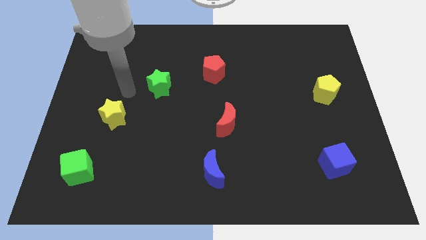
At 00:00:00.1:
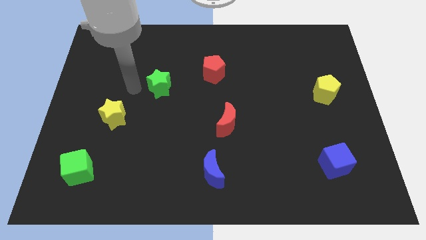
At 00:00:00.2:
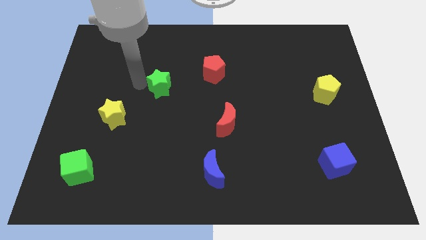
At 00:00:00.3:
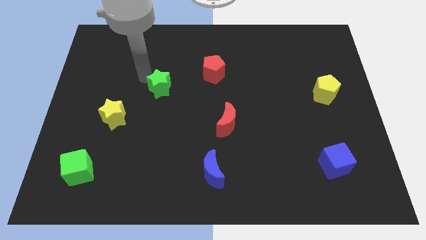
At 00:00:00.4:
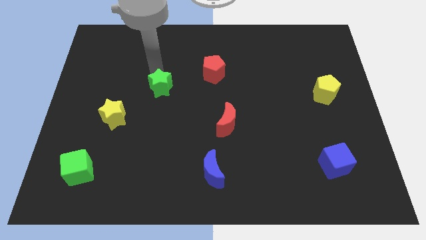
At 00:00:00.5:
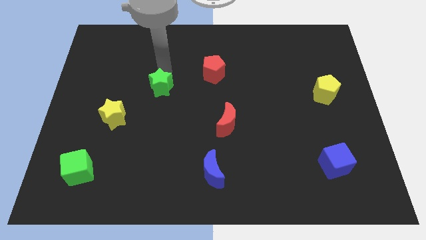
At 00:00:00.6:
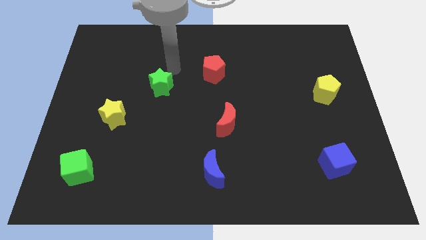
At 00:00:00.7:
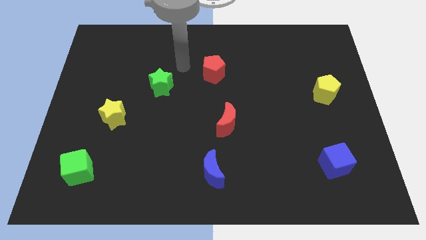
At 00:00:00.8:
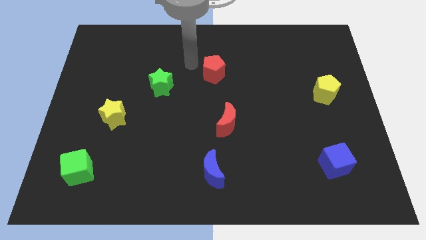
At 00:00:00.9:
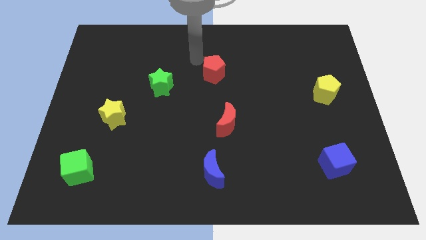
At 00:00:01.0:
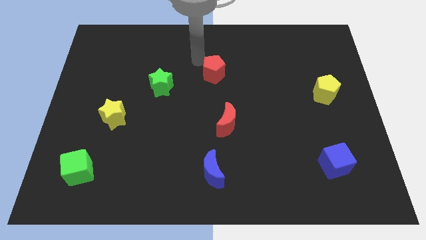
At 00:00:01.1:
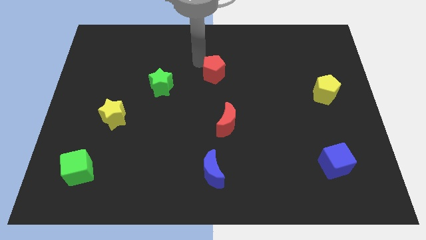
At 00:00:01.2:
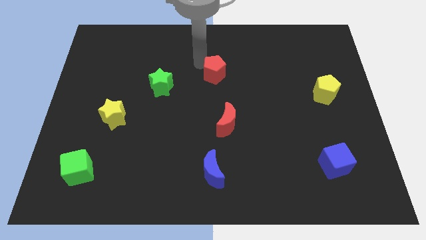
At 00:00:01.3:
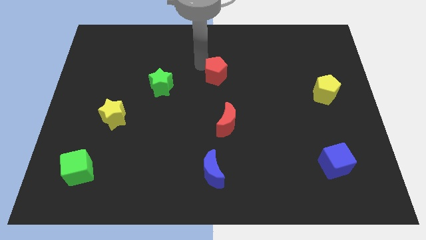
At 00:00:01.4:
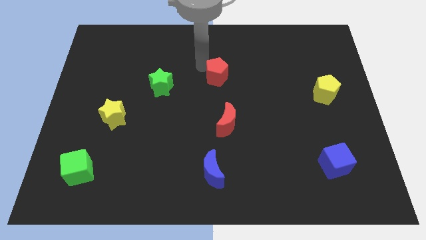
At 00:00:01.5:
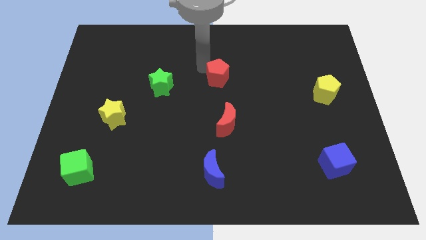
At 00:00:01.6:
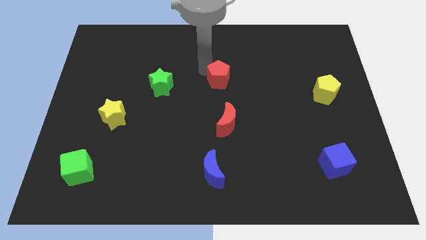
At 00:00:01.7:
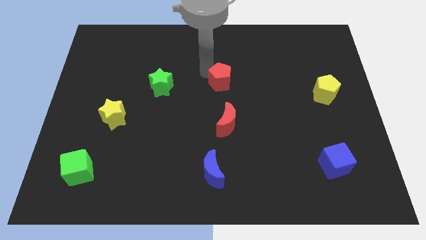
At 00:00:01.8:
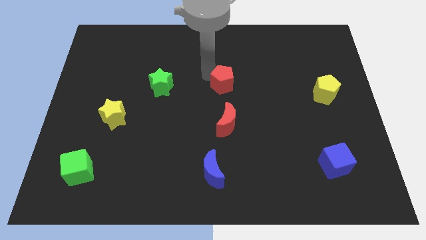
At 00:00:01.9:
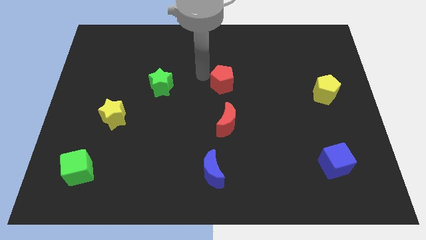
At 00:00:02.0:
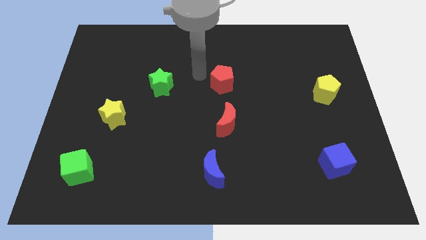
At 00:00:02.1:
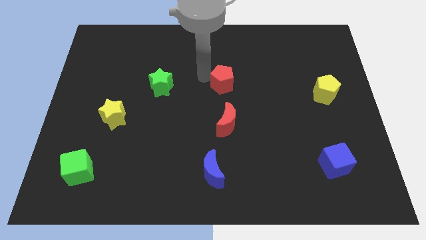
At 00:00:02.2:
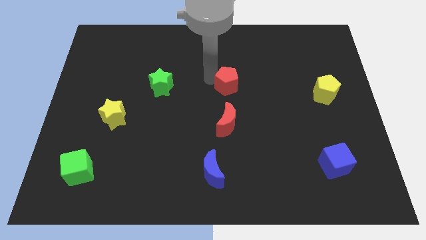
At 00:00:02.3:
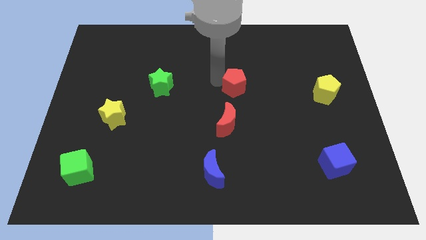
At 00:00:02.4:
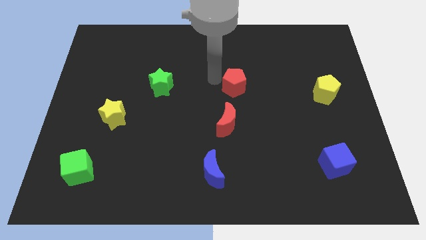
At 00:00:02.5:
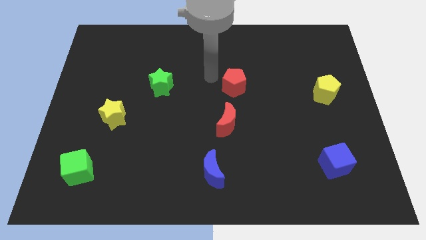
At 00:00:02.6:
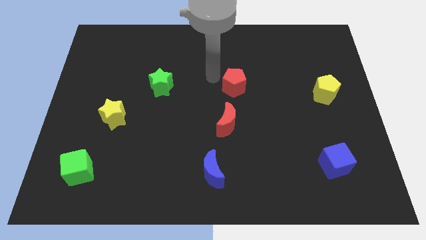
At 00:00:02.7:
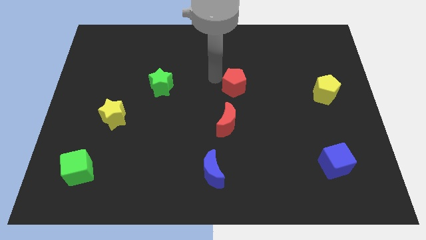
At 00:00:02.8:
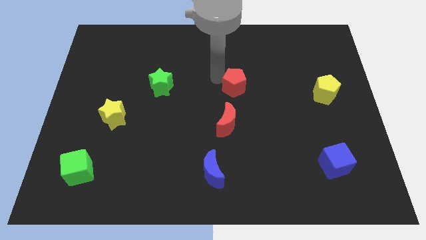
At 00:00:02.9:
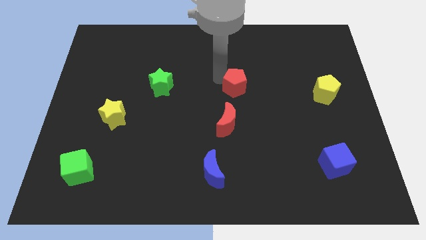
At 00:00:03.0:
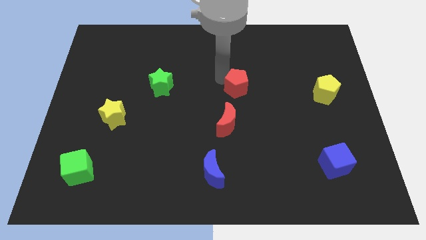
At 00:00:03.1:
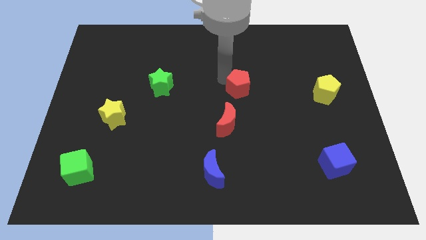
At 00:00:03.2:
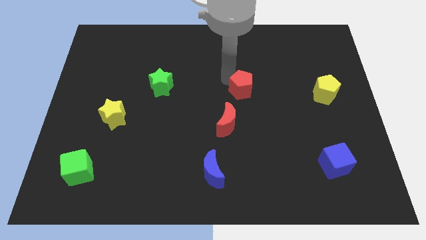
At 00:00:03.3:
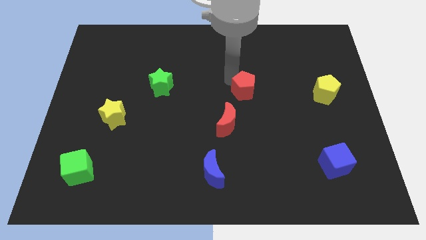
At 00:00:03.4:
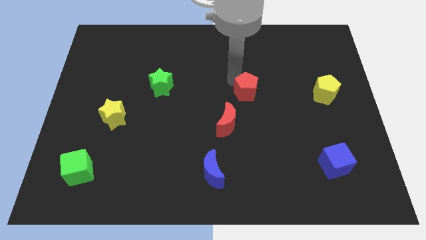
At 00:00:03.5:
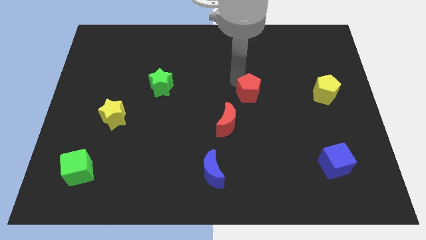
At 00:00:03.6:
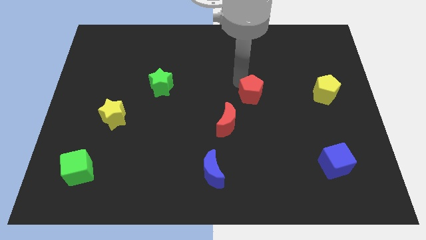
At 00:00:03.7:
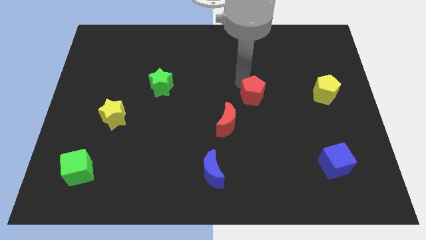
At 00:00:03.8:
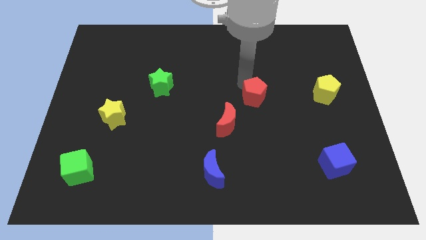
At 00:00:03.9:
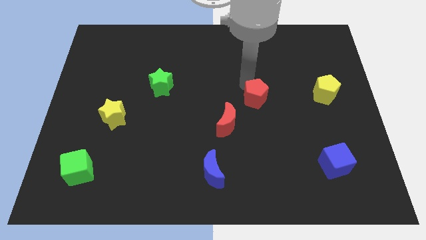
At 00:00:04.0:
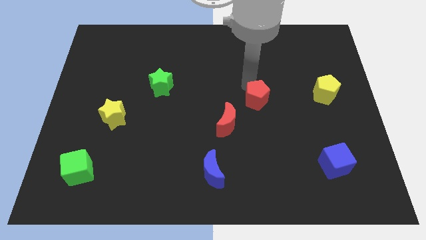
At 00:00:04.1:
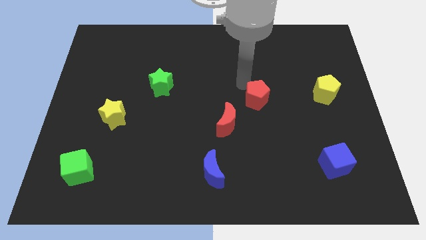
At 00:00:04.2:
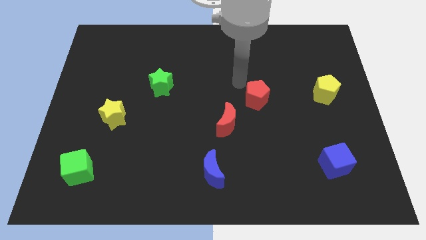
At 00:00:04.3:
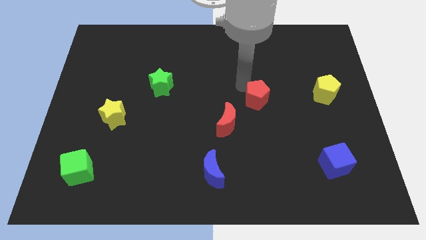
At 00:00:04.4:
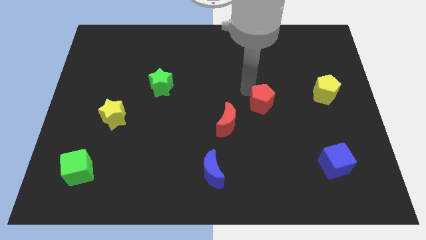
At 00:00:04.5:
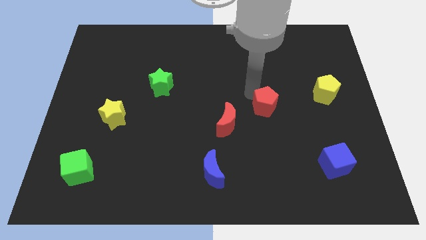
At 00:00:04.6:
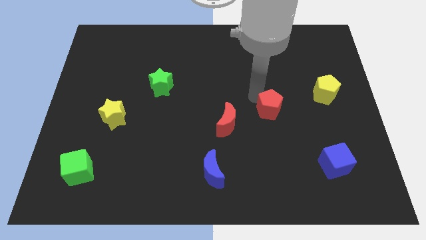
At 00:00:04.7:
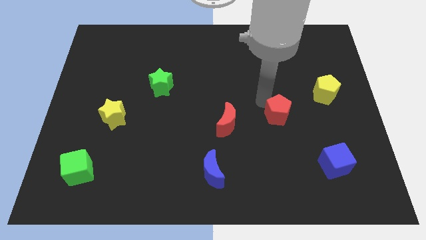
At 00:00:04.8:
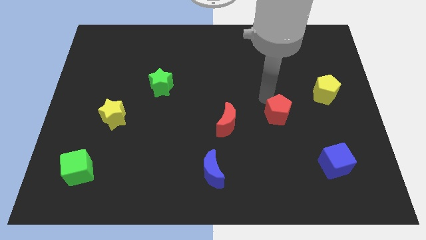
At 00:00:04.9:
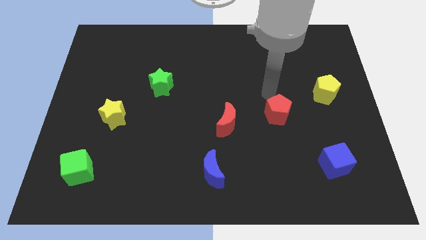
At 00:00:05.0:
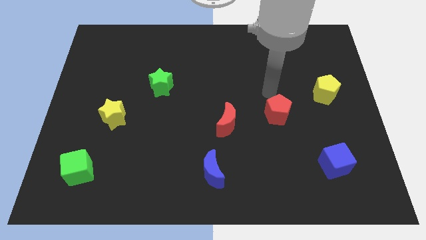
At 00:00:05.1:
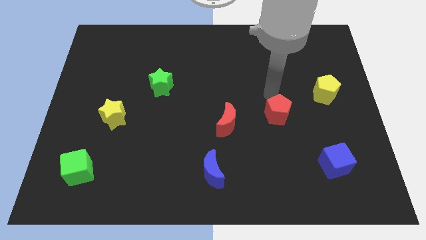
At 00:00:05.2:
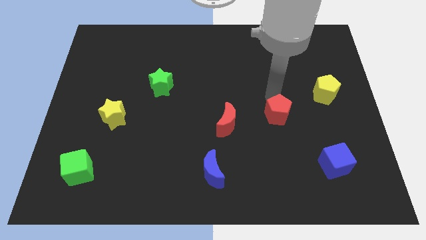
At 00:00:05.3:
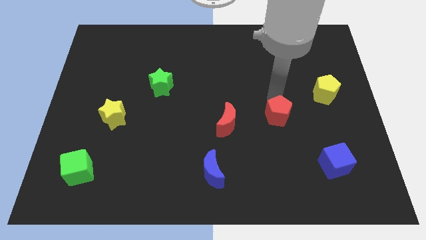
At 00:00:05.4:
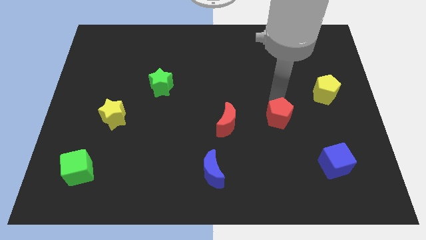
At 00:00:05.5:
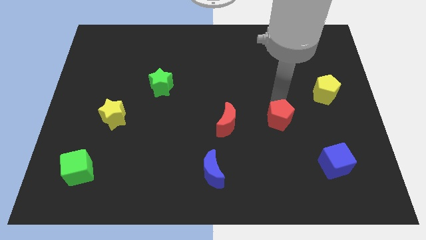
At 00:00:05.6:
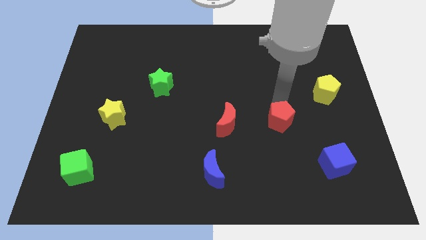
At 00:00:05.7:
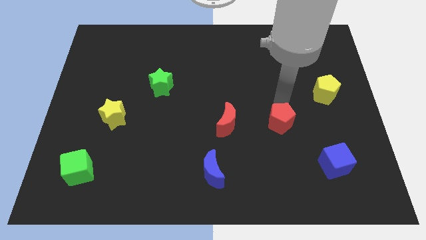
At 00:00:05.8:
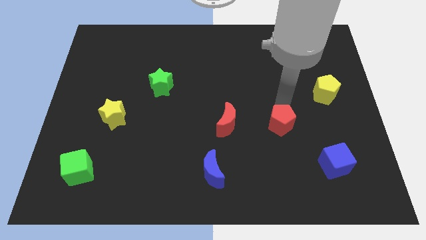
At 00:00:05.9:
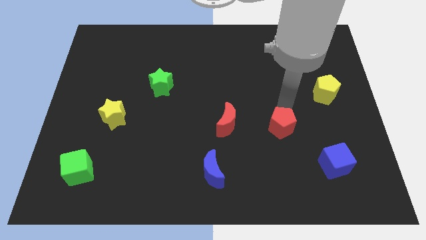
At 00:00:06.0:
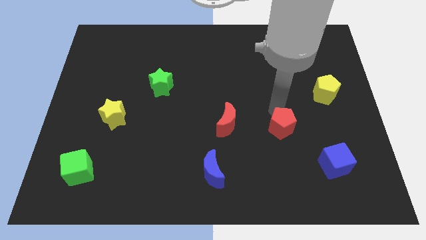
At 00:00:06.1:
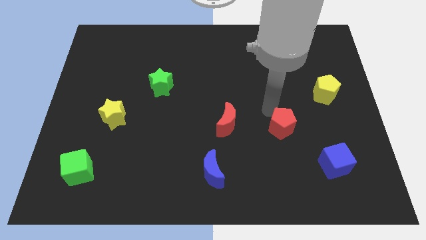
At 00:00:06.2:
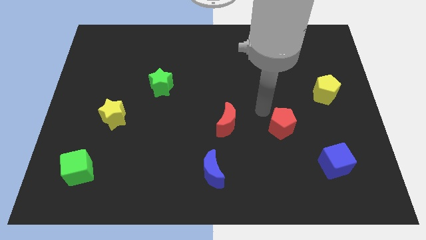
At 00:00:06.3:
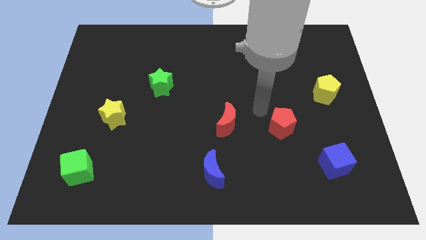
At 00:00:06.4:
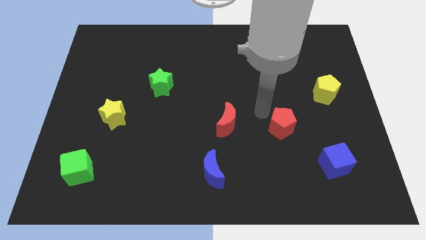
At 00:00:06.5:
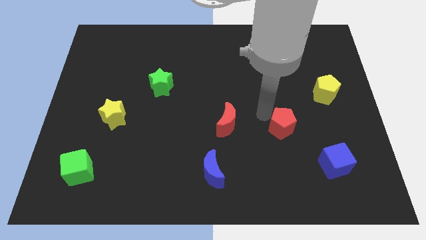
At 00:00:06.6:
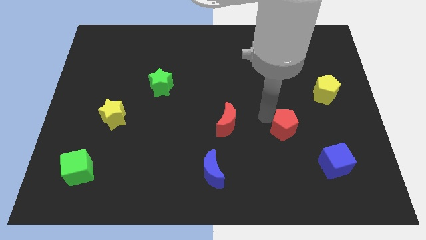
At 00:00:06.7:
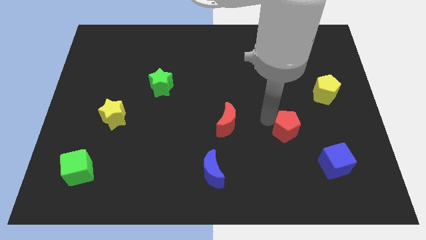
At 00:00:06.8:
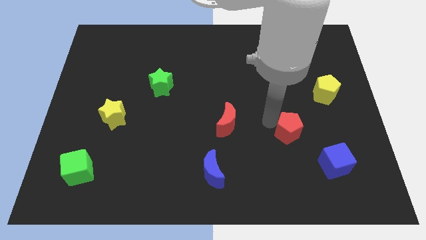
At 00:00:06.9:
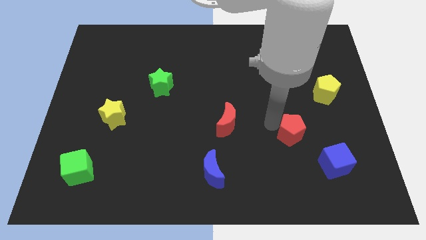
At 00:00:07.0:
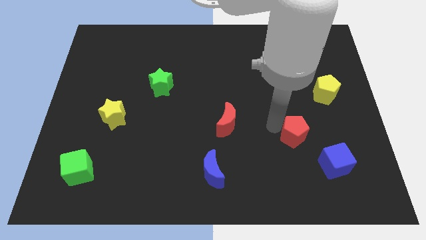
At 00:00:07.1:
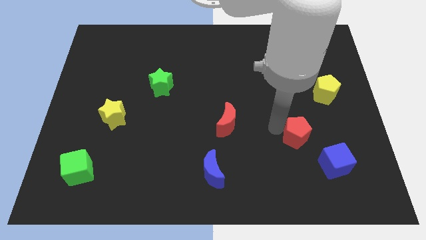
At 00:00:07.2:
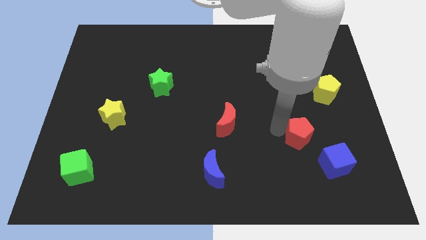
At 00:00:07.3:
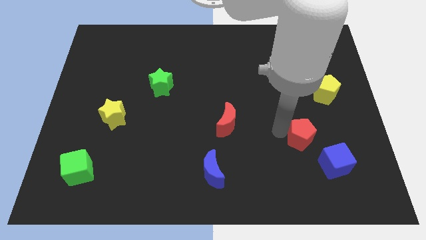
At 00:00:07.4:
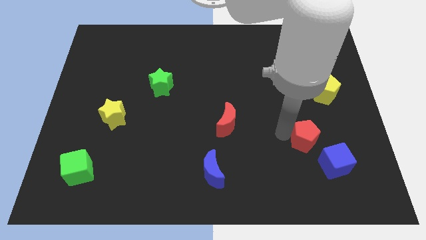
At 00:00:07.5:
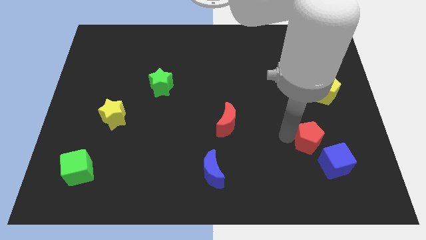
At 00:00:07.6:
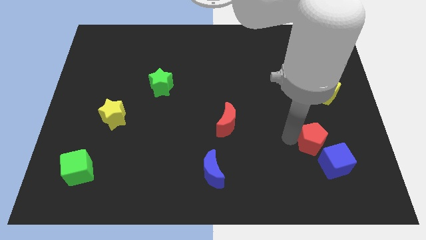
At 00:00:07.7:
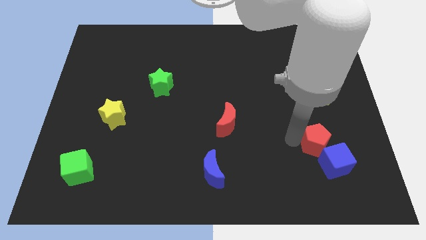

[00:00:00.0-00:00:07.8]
push the red pentagon towards the blue cube

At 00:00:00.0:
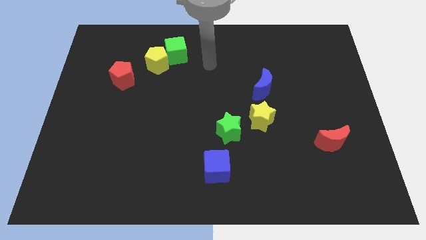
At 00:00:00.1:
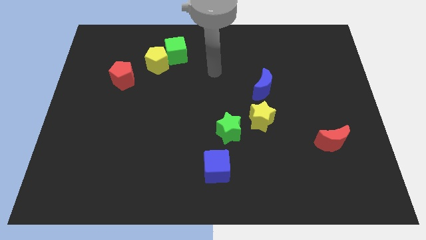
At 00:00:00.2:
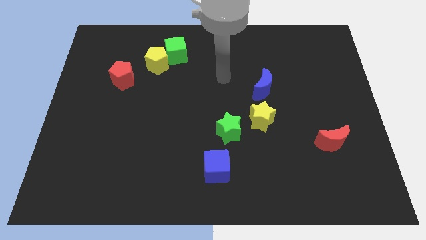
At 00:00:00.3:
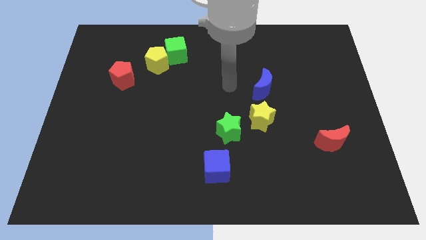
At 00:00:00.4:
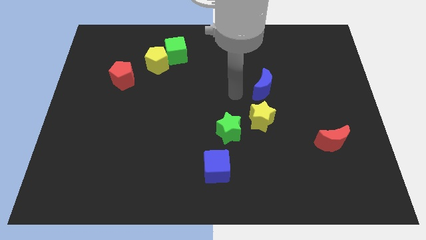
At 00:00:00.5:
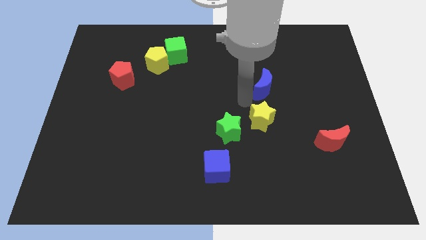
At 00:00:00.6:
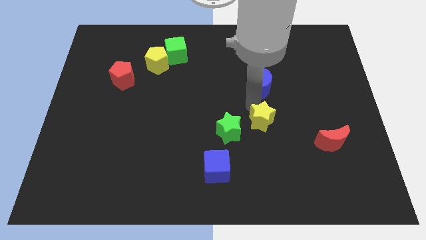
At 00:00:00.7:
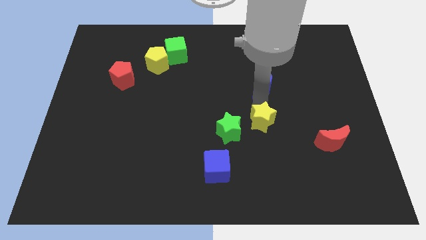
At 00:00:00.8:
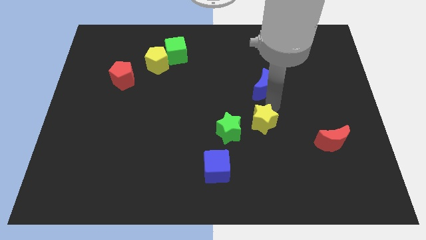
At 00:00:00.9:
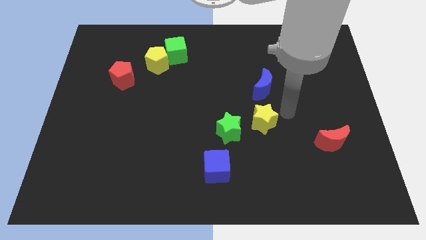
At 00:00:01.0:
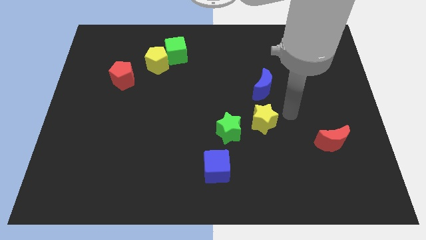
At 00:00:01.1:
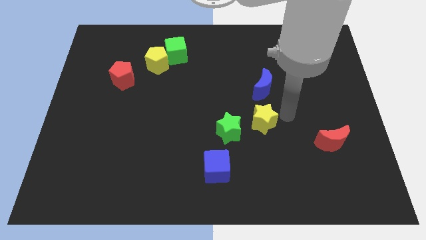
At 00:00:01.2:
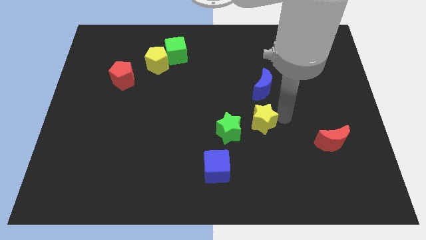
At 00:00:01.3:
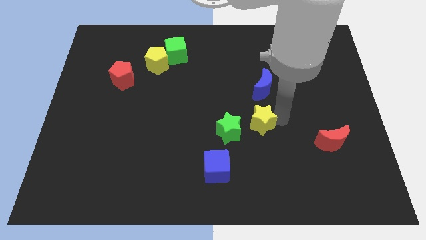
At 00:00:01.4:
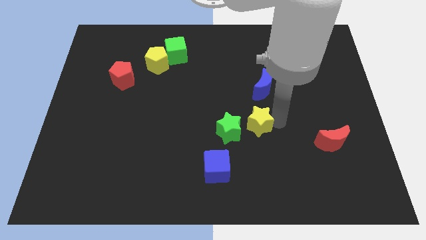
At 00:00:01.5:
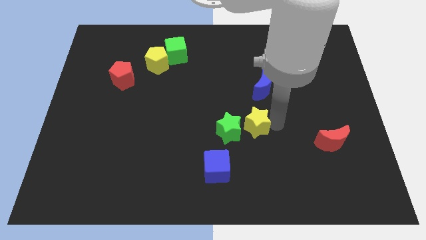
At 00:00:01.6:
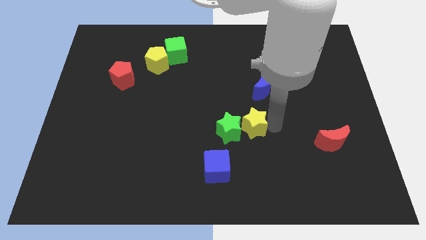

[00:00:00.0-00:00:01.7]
put the yellow star next to the green star
